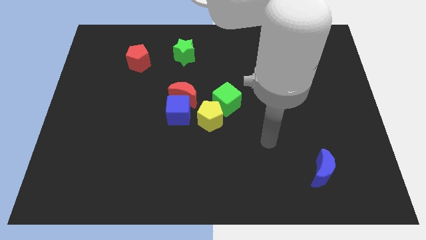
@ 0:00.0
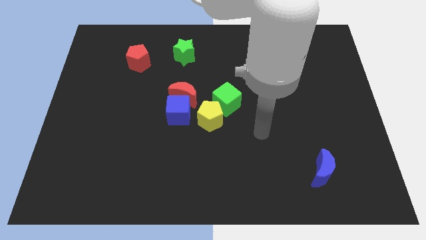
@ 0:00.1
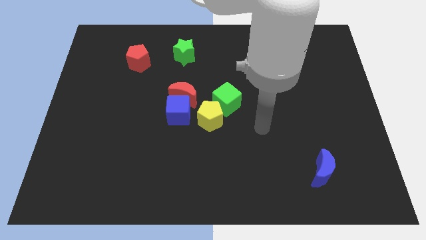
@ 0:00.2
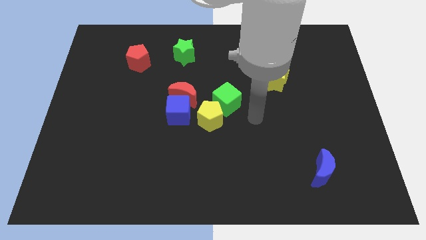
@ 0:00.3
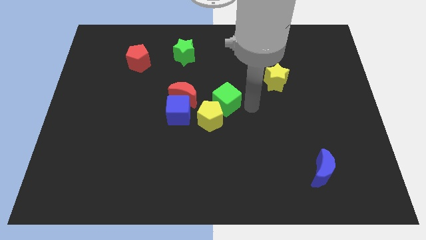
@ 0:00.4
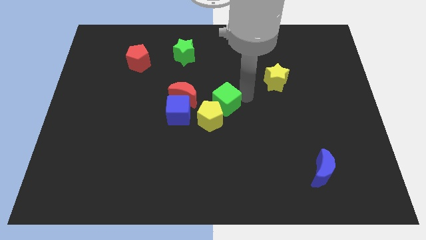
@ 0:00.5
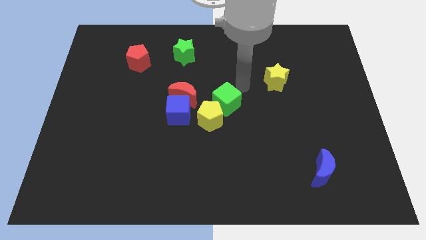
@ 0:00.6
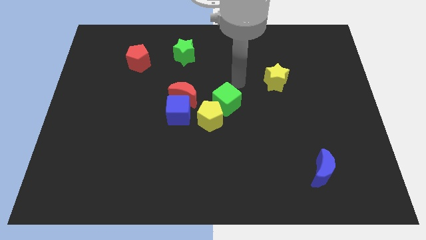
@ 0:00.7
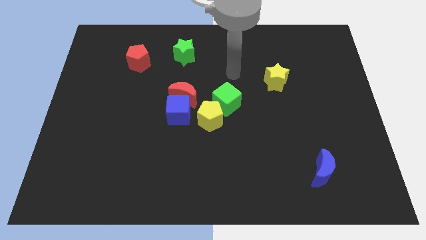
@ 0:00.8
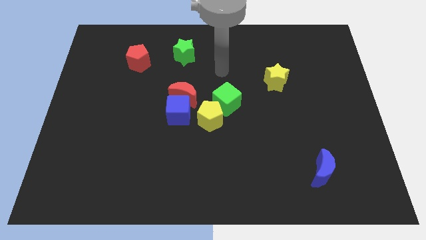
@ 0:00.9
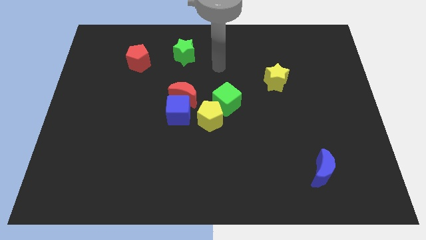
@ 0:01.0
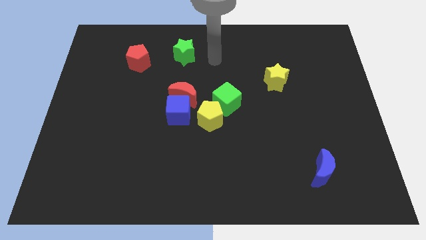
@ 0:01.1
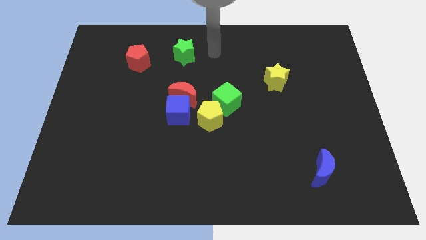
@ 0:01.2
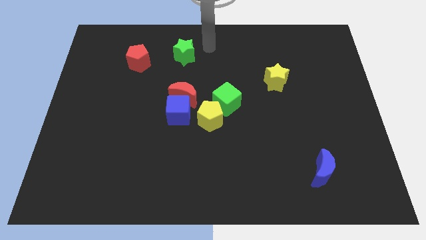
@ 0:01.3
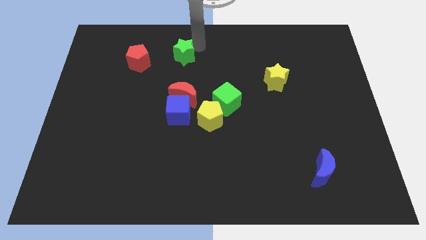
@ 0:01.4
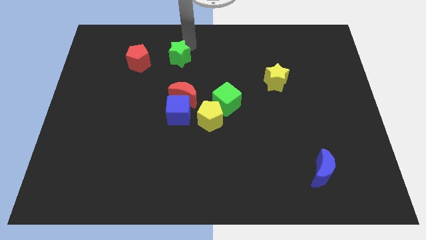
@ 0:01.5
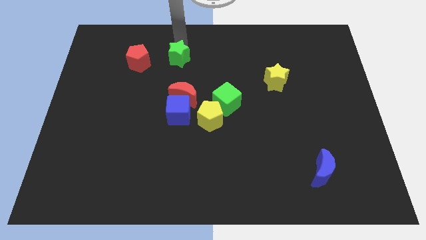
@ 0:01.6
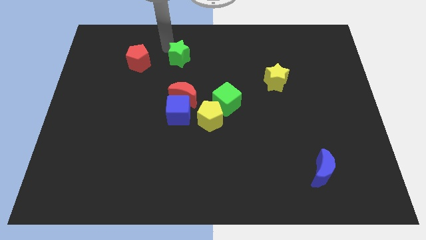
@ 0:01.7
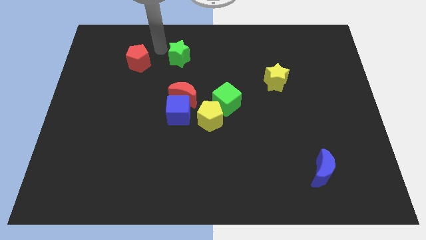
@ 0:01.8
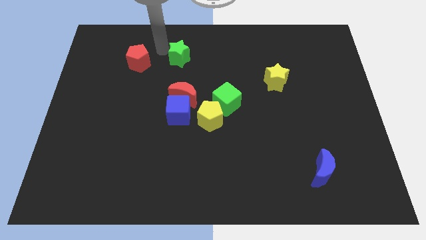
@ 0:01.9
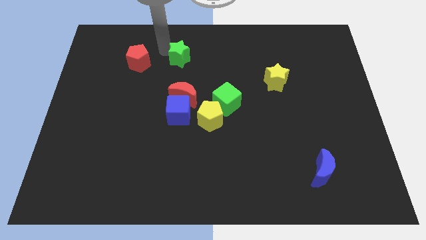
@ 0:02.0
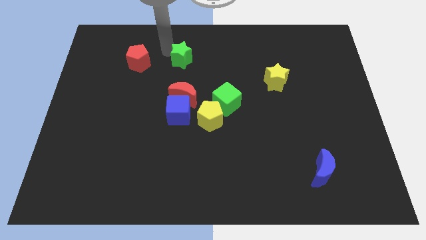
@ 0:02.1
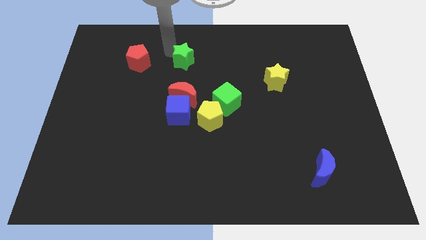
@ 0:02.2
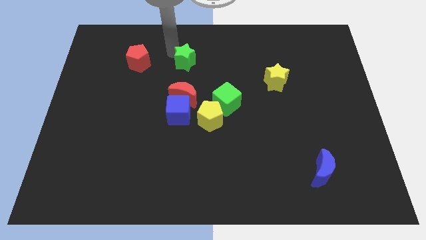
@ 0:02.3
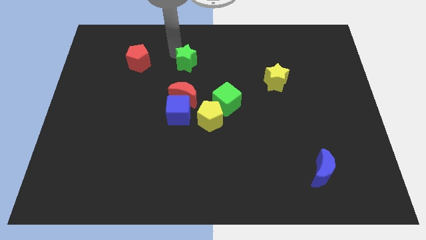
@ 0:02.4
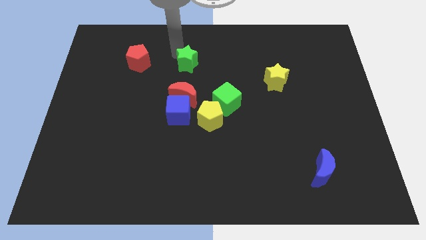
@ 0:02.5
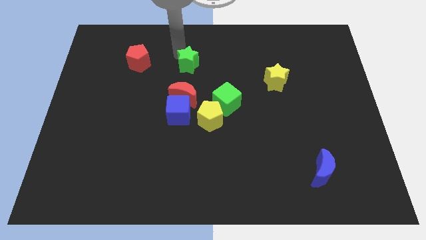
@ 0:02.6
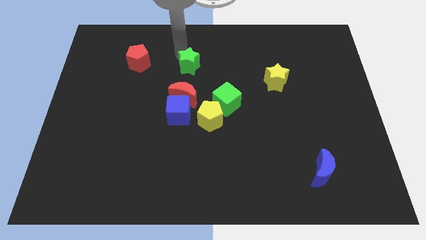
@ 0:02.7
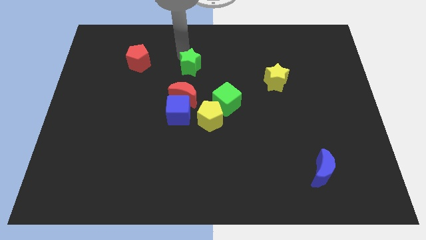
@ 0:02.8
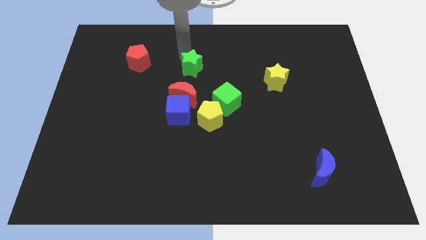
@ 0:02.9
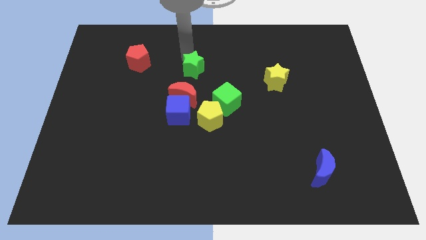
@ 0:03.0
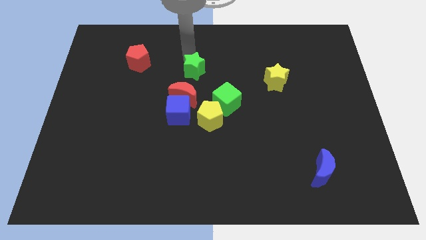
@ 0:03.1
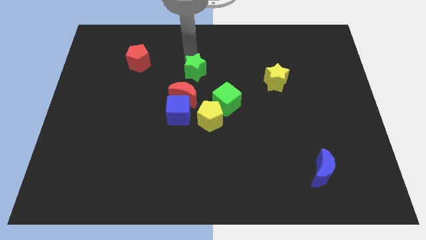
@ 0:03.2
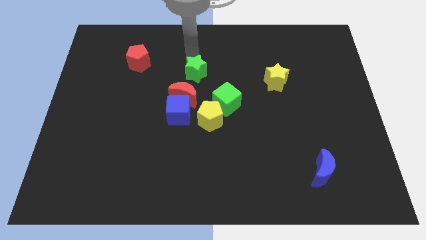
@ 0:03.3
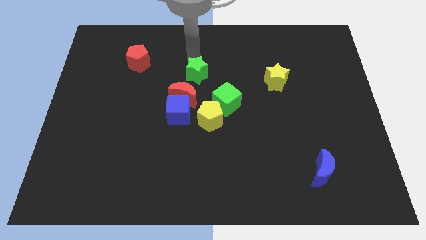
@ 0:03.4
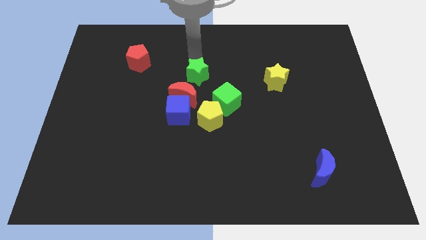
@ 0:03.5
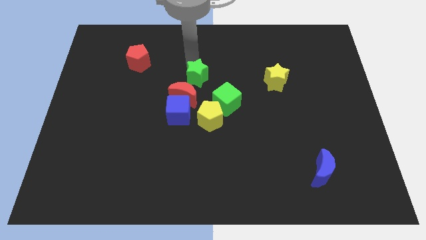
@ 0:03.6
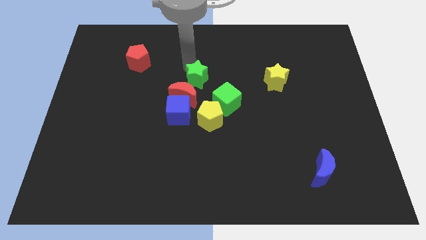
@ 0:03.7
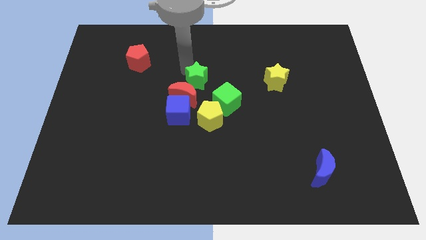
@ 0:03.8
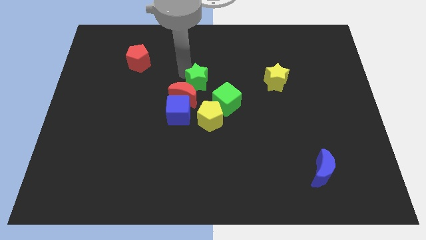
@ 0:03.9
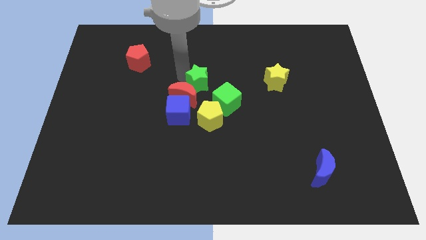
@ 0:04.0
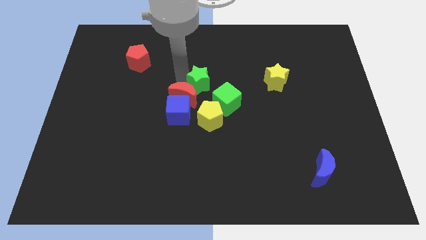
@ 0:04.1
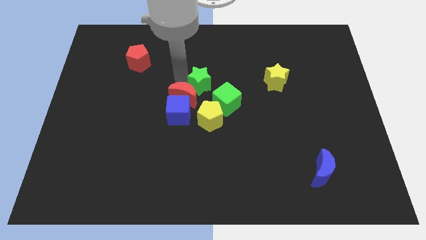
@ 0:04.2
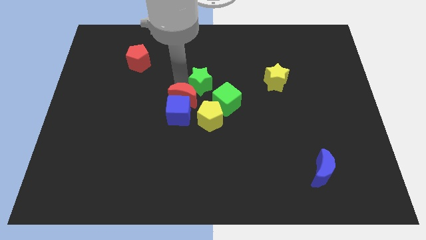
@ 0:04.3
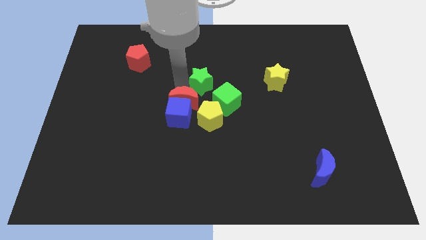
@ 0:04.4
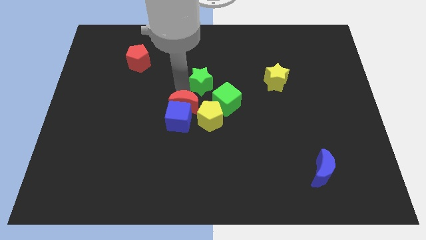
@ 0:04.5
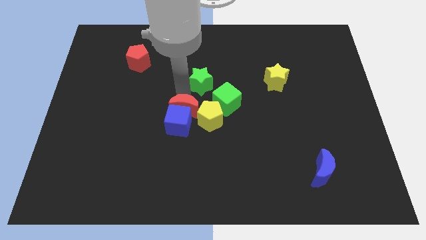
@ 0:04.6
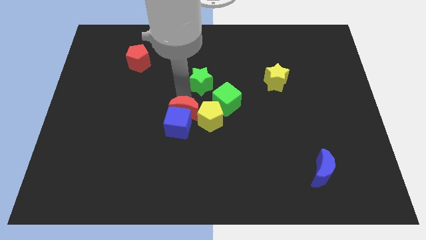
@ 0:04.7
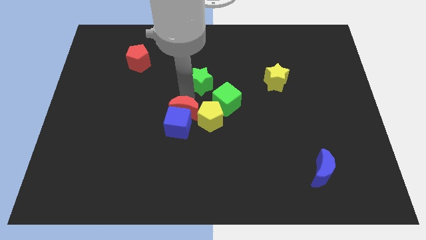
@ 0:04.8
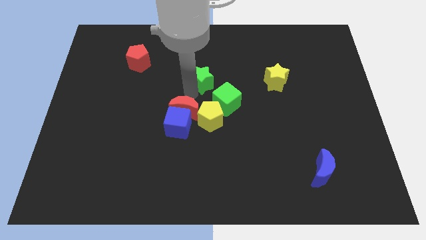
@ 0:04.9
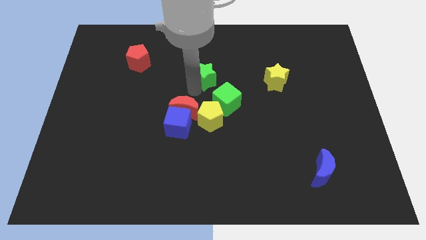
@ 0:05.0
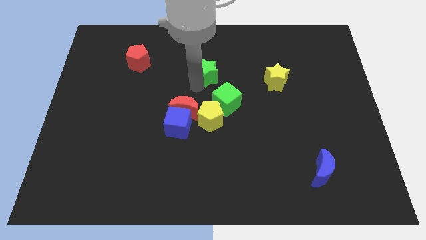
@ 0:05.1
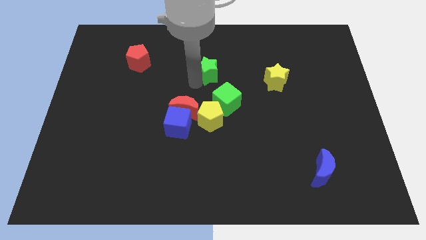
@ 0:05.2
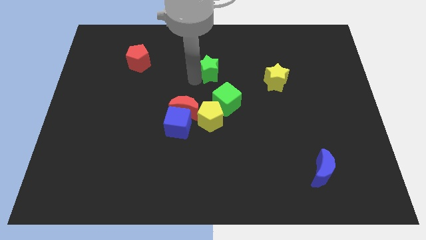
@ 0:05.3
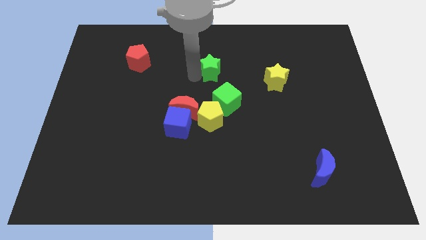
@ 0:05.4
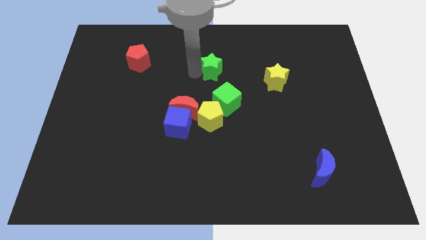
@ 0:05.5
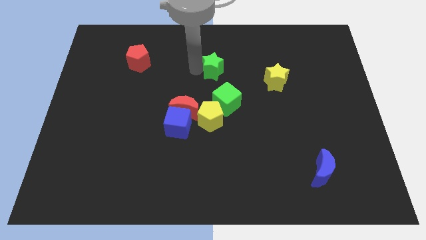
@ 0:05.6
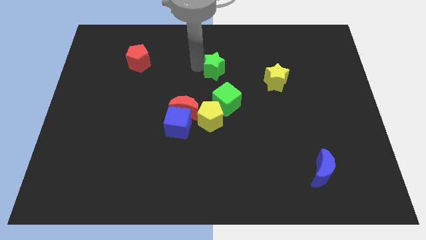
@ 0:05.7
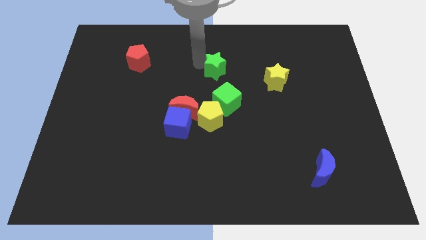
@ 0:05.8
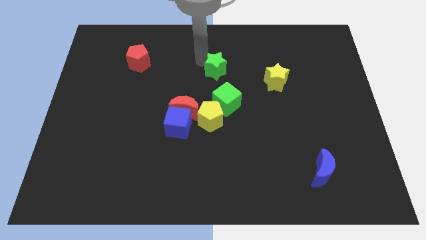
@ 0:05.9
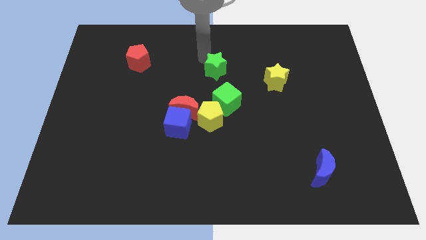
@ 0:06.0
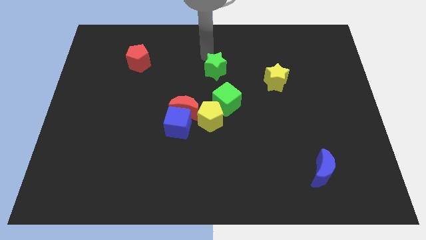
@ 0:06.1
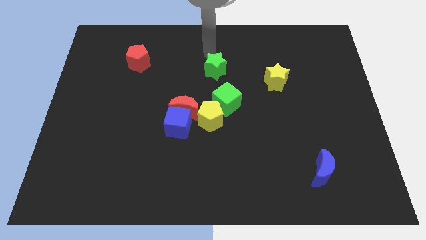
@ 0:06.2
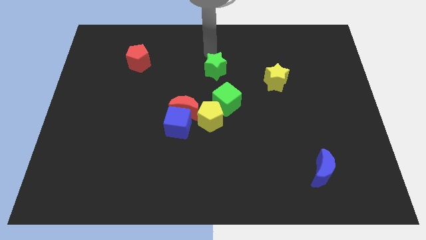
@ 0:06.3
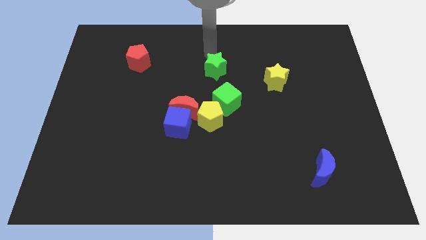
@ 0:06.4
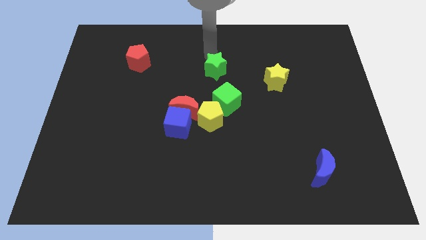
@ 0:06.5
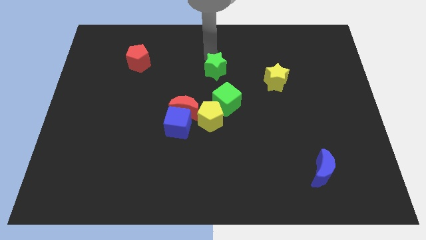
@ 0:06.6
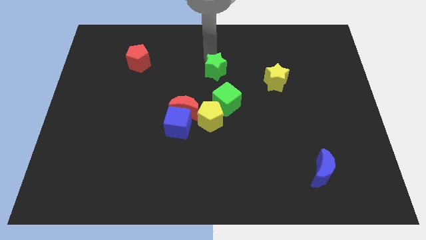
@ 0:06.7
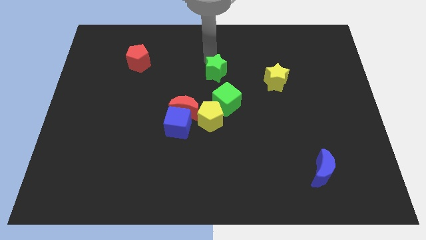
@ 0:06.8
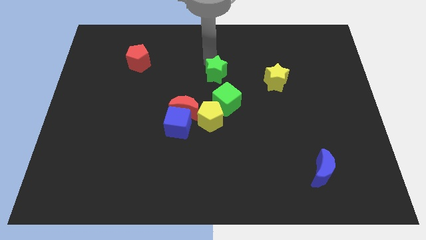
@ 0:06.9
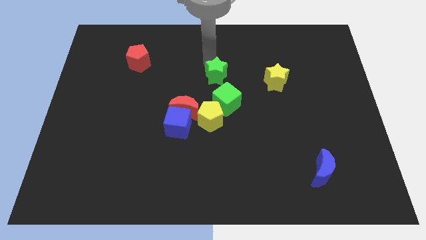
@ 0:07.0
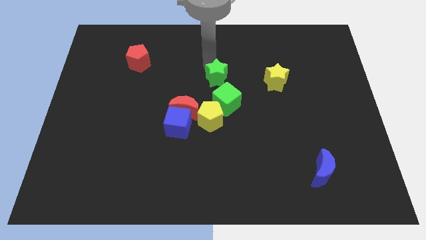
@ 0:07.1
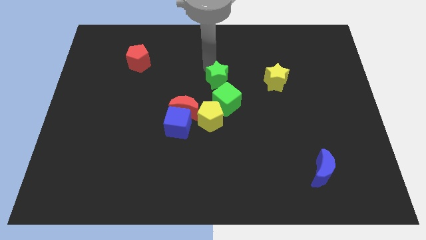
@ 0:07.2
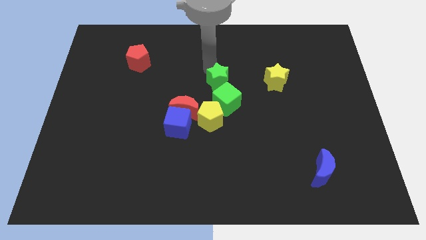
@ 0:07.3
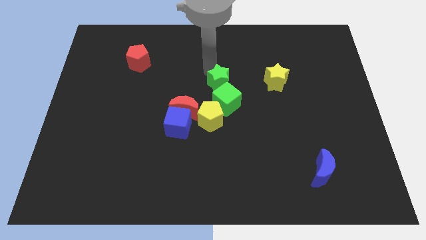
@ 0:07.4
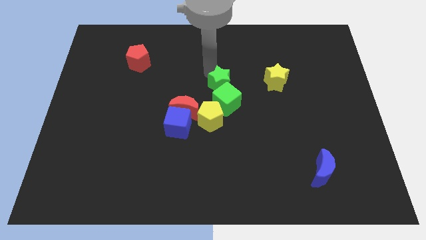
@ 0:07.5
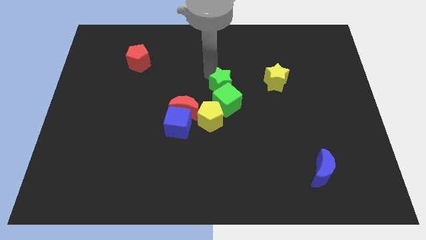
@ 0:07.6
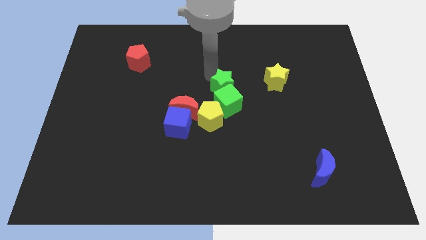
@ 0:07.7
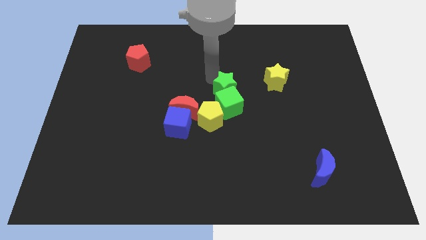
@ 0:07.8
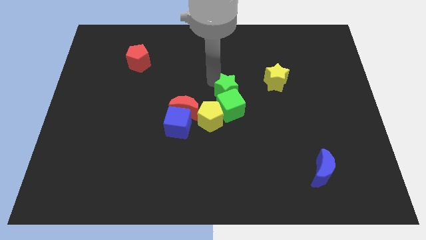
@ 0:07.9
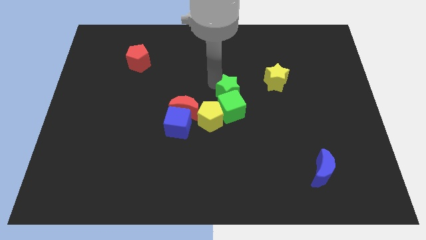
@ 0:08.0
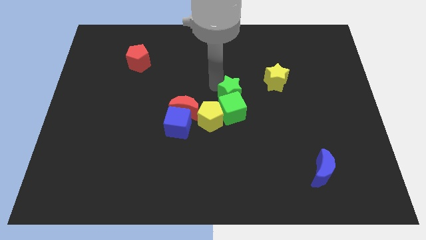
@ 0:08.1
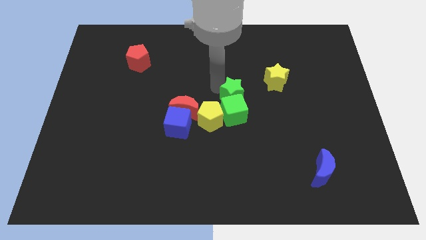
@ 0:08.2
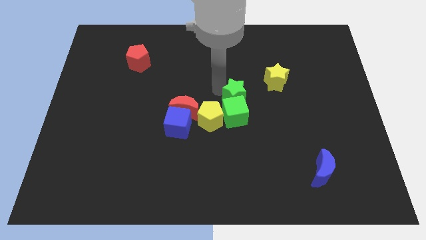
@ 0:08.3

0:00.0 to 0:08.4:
put the green star diagonally down and to the left of the yellow star
